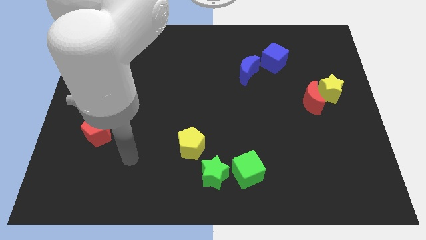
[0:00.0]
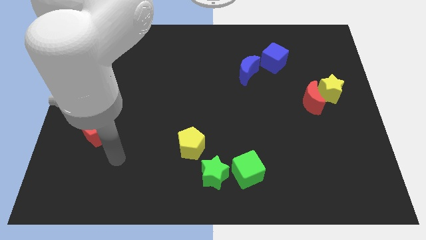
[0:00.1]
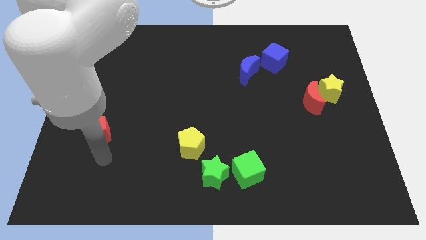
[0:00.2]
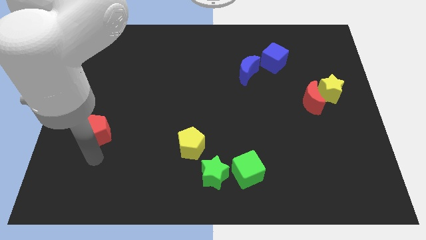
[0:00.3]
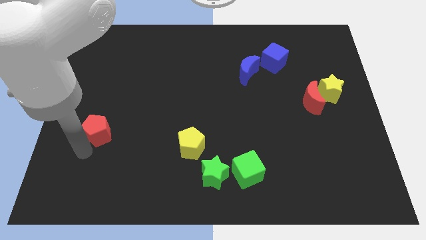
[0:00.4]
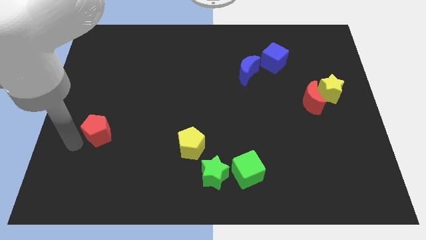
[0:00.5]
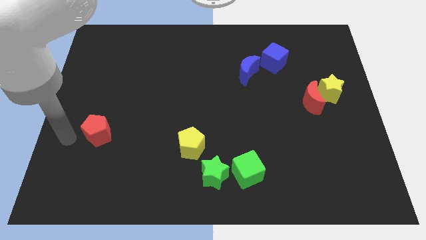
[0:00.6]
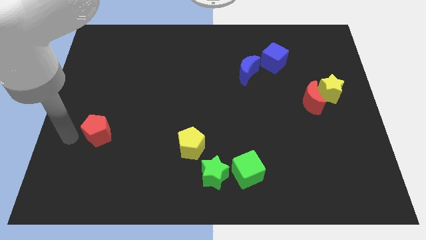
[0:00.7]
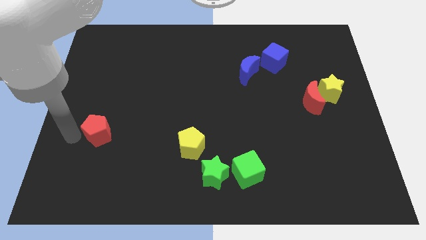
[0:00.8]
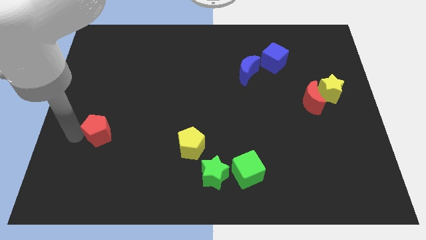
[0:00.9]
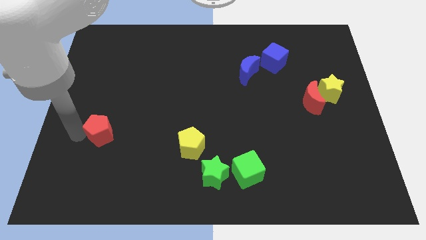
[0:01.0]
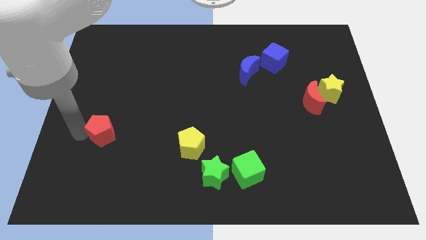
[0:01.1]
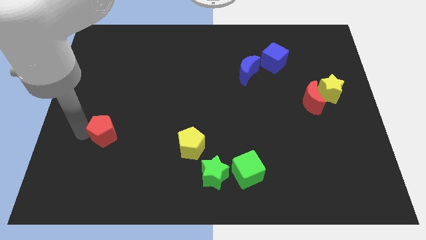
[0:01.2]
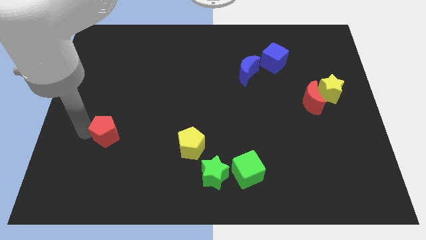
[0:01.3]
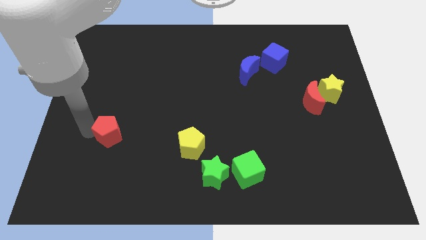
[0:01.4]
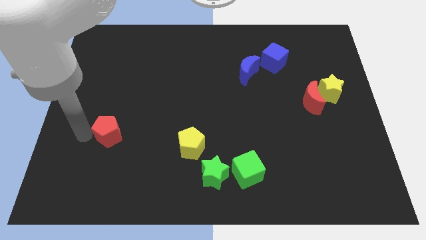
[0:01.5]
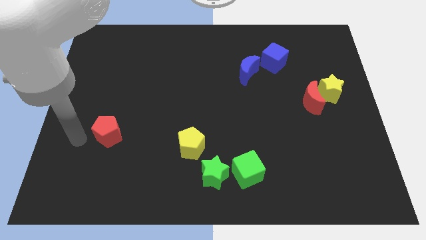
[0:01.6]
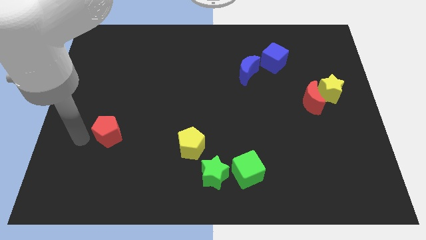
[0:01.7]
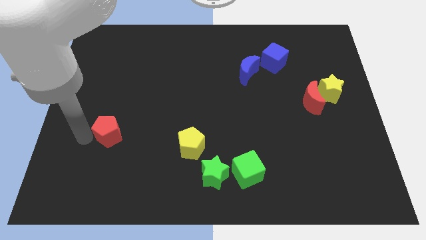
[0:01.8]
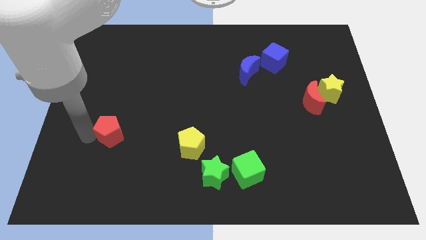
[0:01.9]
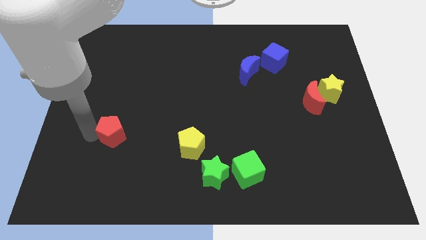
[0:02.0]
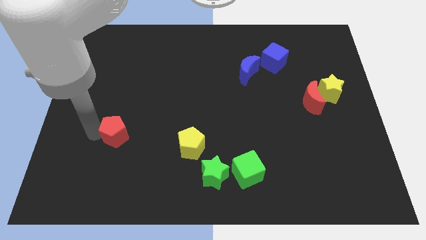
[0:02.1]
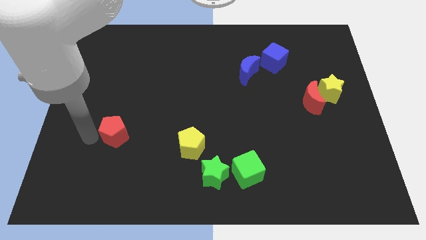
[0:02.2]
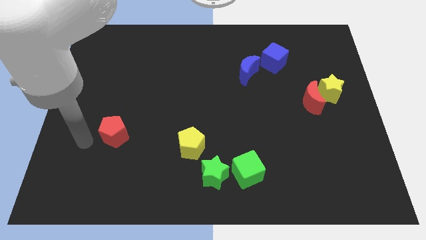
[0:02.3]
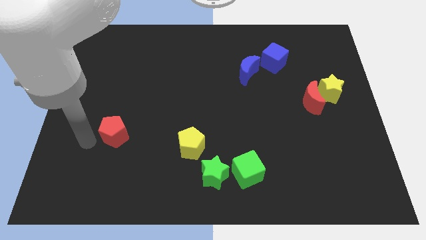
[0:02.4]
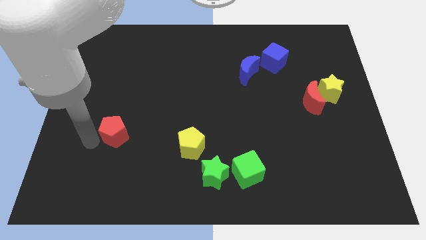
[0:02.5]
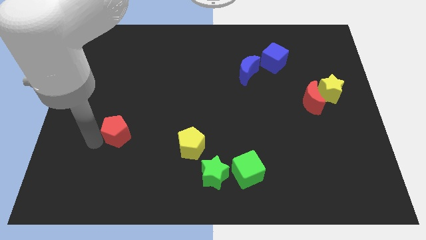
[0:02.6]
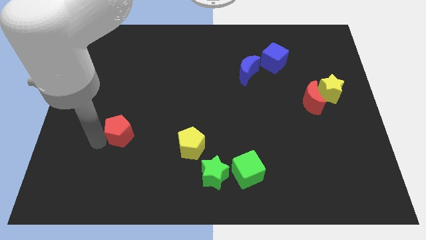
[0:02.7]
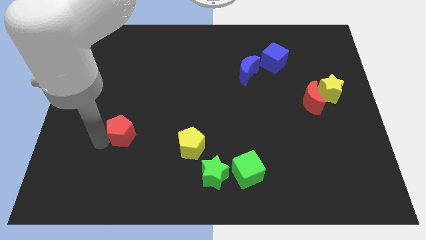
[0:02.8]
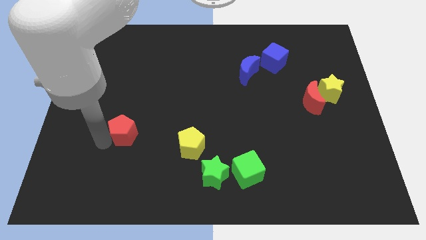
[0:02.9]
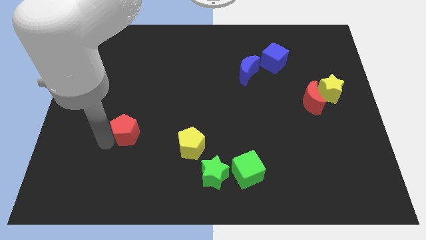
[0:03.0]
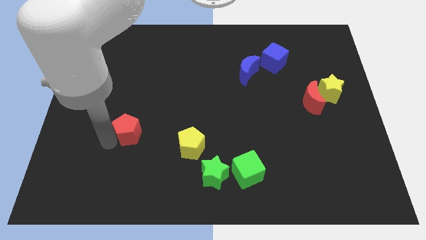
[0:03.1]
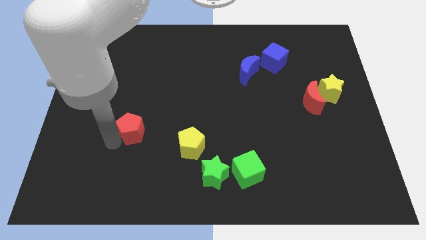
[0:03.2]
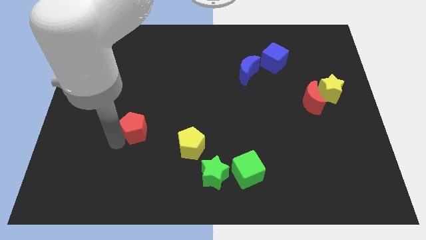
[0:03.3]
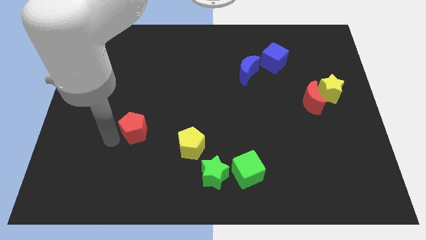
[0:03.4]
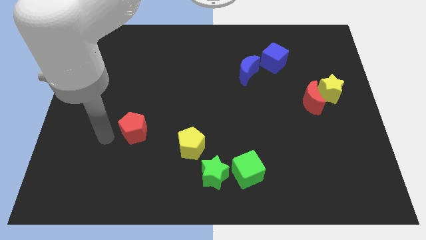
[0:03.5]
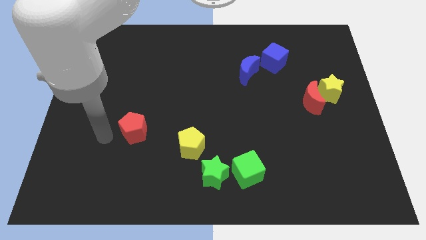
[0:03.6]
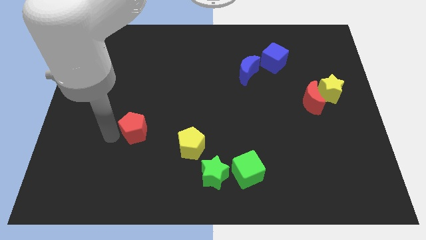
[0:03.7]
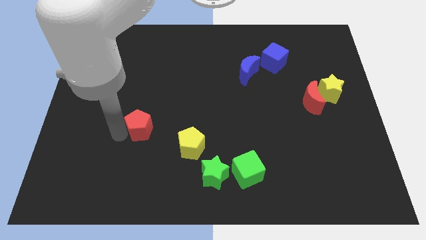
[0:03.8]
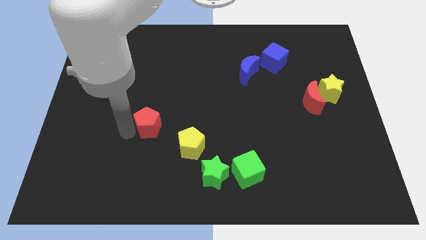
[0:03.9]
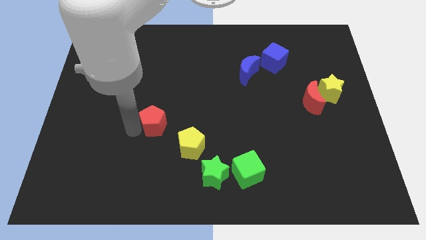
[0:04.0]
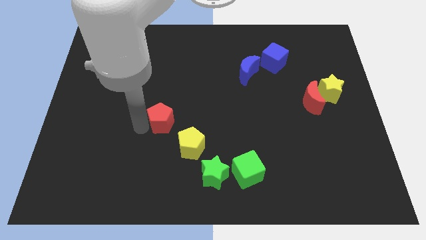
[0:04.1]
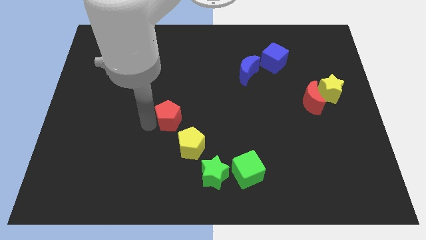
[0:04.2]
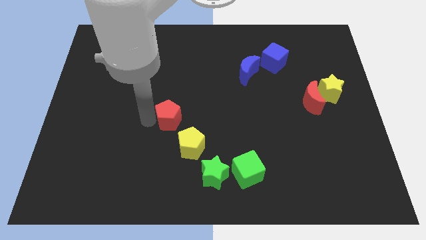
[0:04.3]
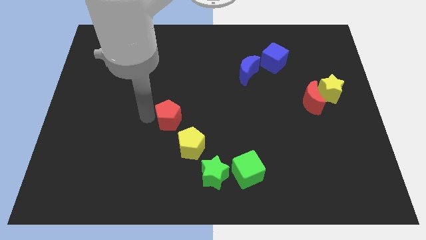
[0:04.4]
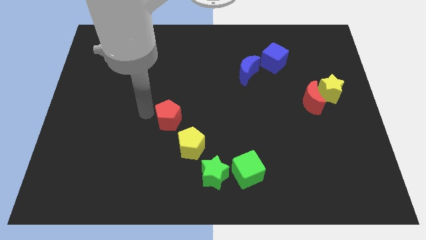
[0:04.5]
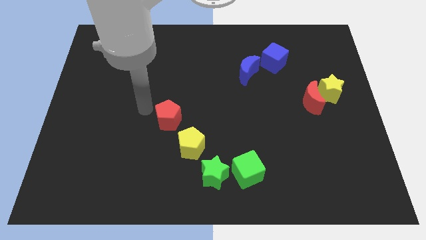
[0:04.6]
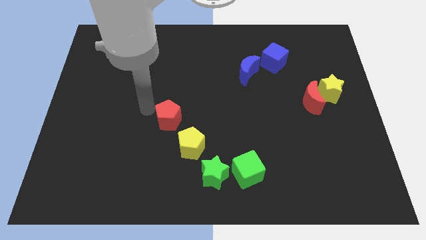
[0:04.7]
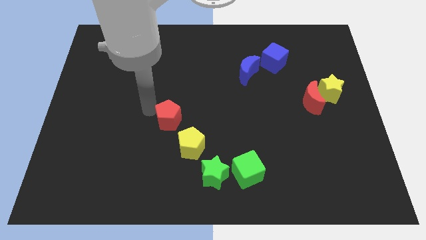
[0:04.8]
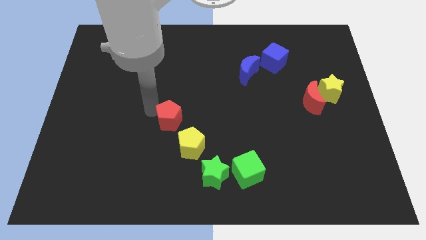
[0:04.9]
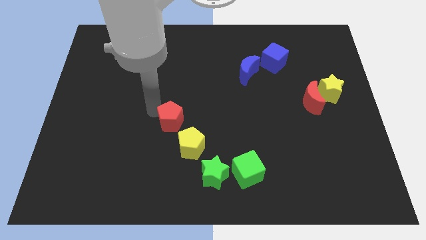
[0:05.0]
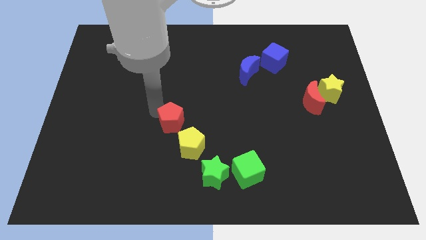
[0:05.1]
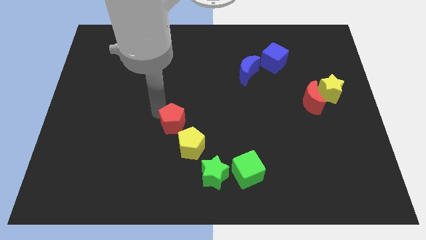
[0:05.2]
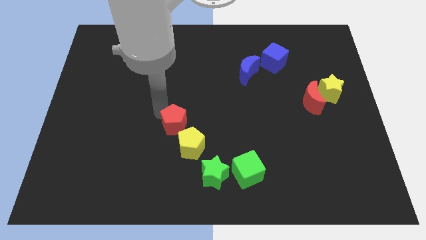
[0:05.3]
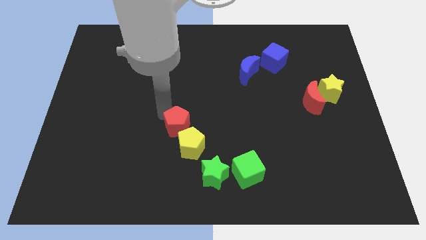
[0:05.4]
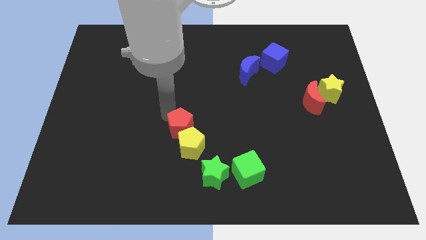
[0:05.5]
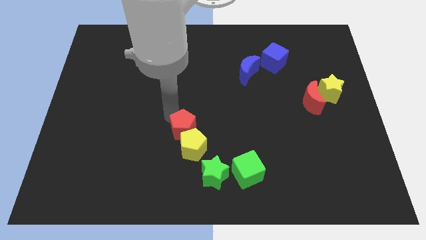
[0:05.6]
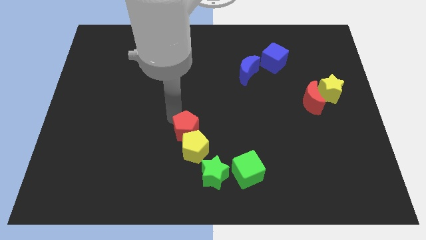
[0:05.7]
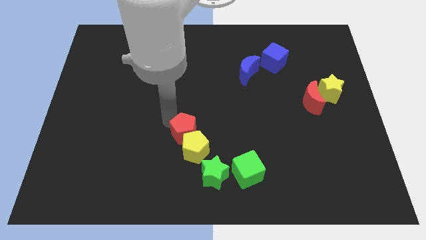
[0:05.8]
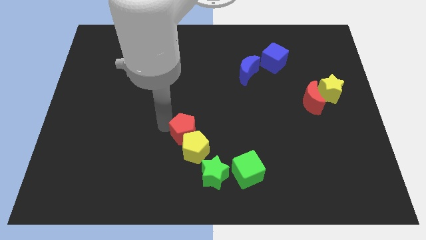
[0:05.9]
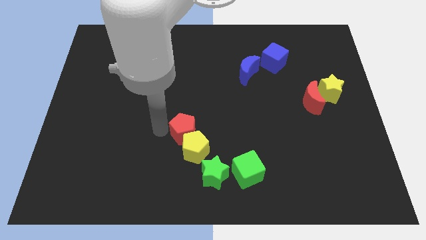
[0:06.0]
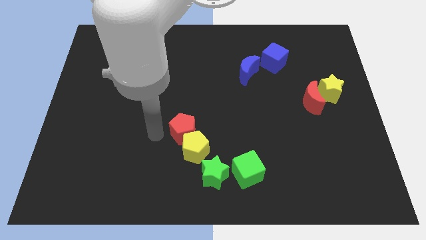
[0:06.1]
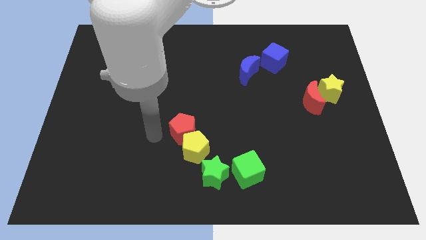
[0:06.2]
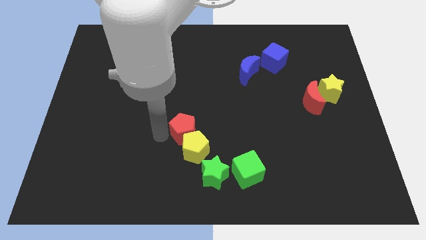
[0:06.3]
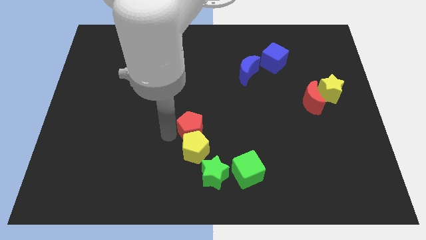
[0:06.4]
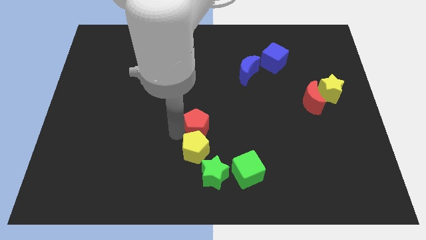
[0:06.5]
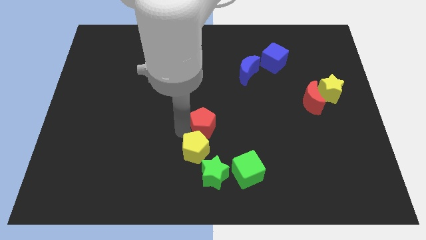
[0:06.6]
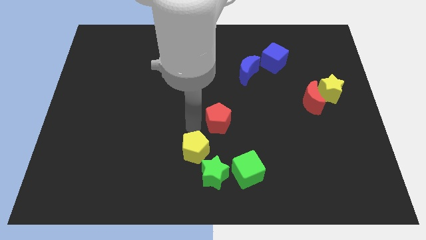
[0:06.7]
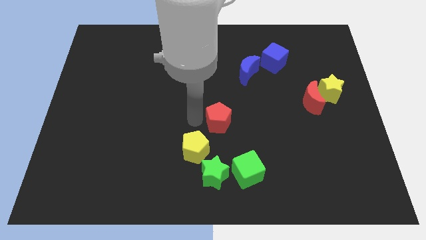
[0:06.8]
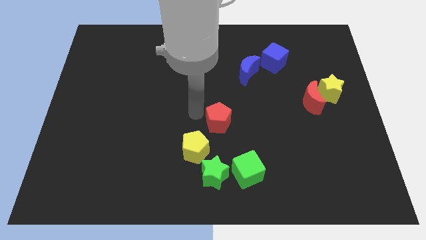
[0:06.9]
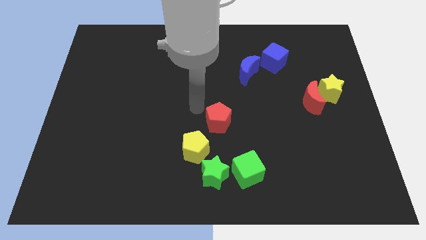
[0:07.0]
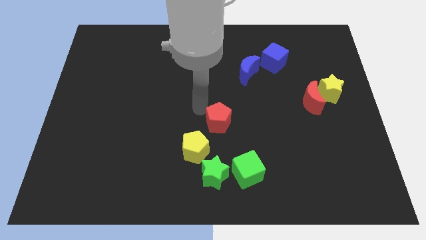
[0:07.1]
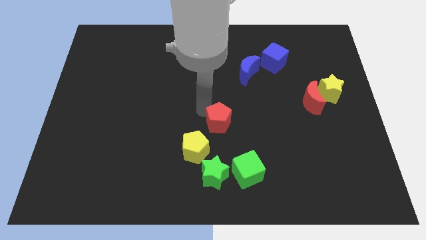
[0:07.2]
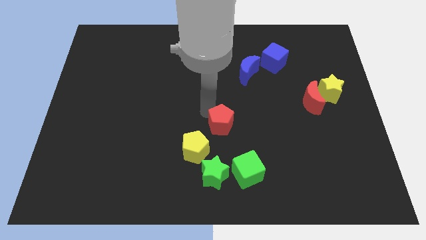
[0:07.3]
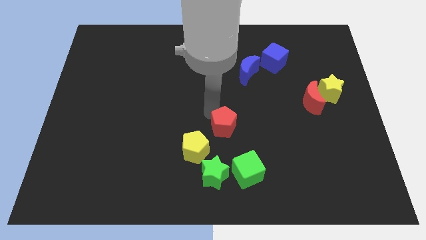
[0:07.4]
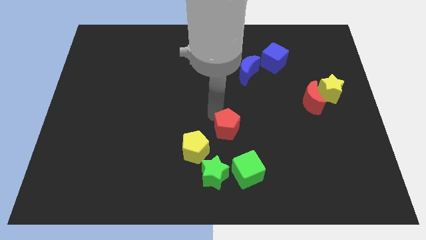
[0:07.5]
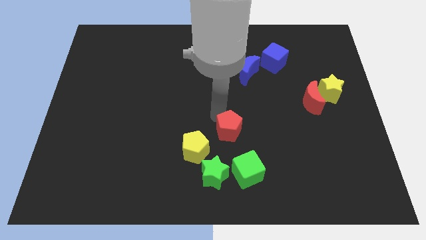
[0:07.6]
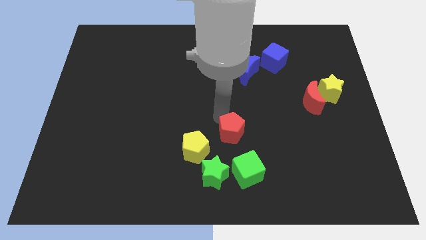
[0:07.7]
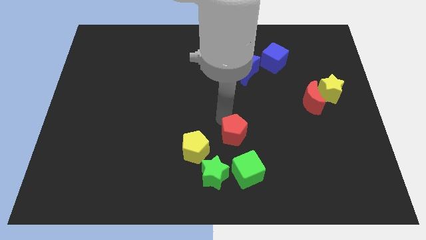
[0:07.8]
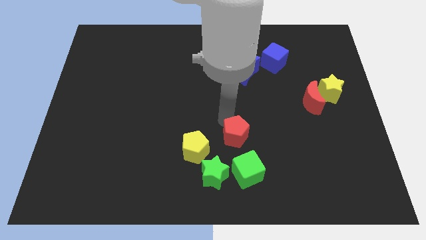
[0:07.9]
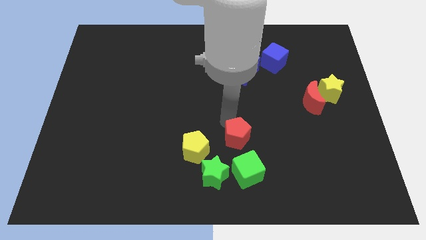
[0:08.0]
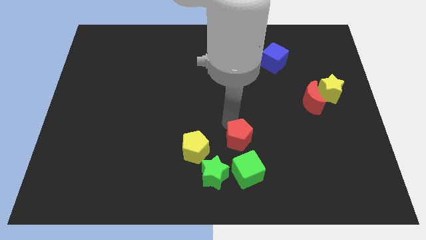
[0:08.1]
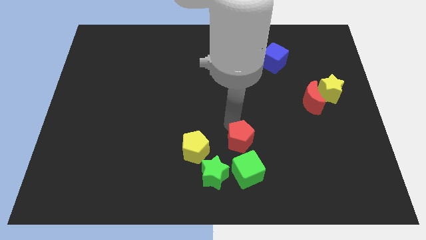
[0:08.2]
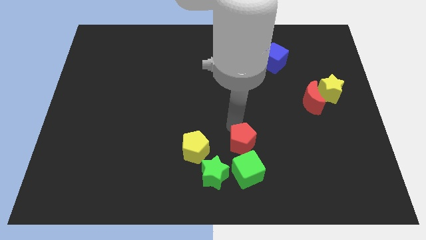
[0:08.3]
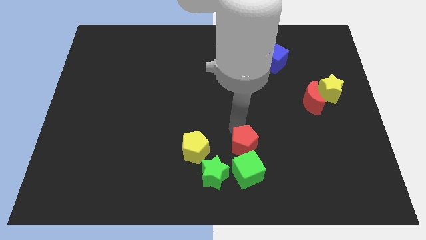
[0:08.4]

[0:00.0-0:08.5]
put the red pentagon to the top right of the green cube

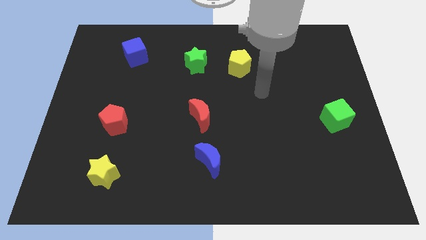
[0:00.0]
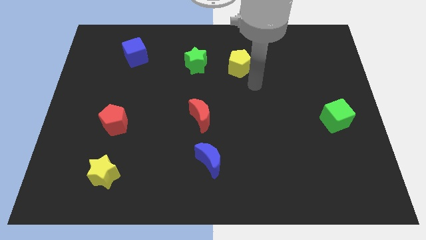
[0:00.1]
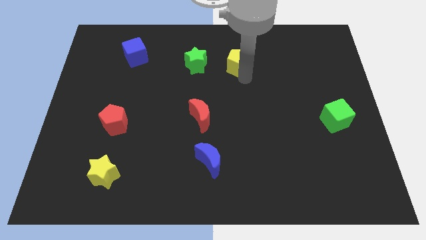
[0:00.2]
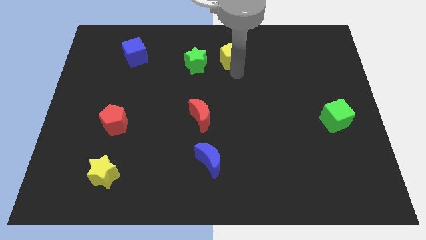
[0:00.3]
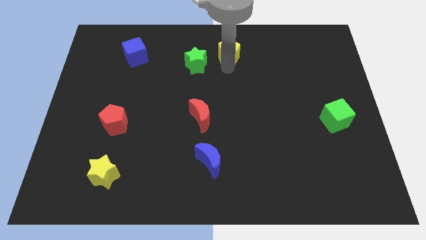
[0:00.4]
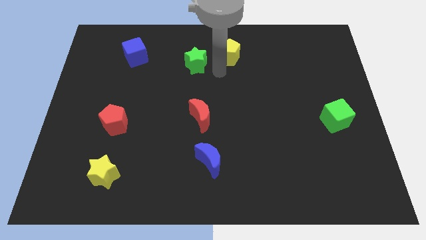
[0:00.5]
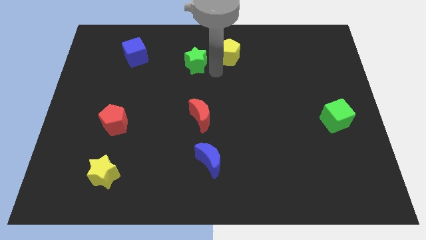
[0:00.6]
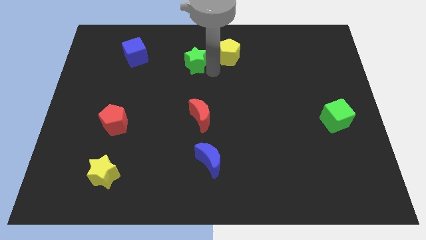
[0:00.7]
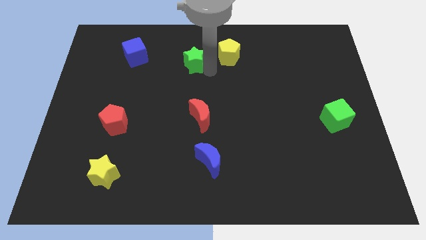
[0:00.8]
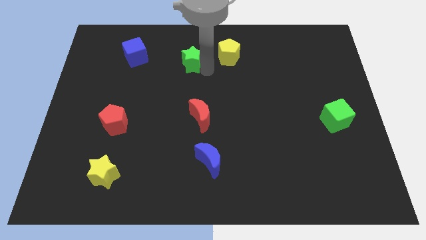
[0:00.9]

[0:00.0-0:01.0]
move the green star right of the blue cube
